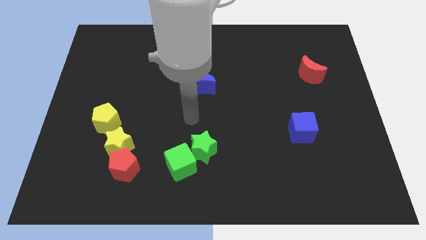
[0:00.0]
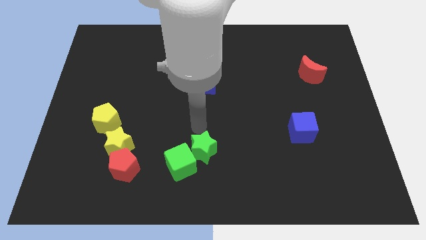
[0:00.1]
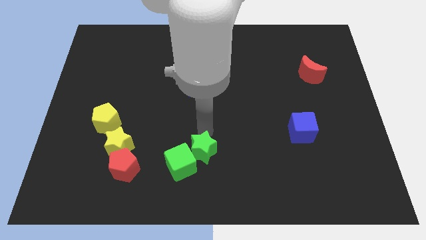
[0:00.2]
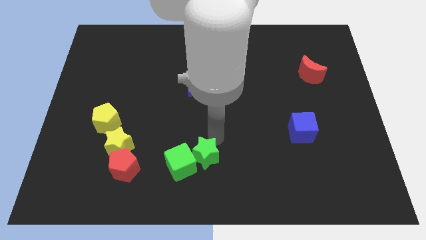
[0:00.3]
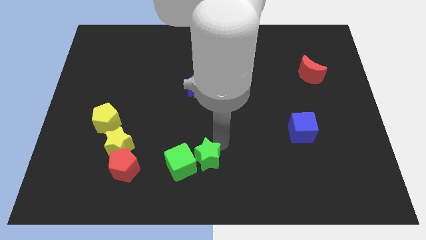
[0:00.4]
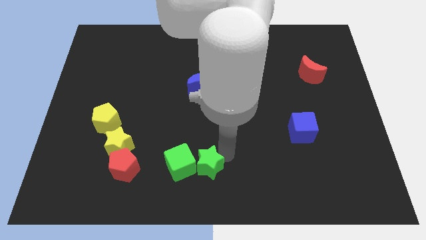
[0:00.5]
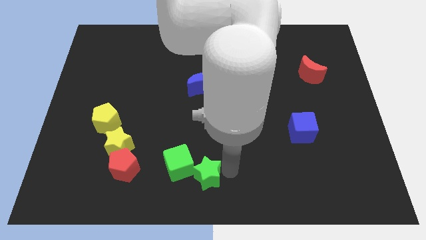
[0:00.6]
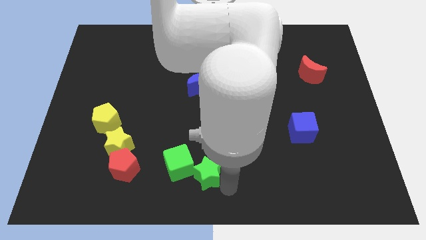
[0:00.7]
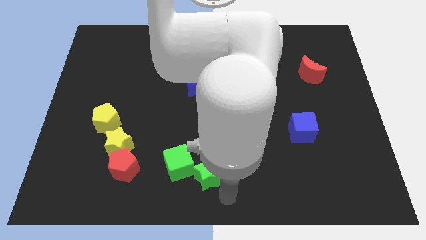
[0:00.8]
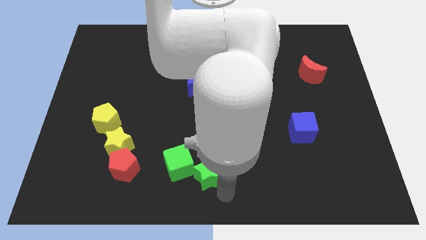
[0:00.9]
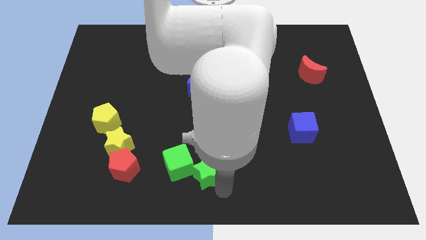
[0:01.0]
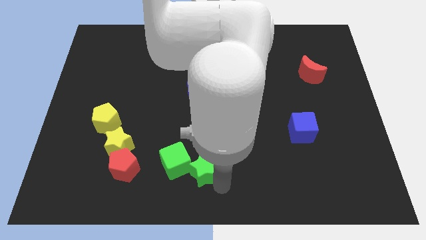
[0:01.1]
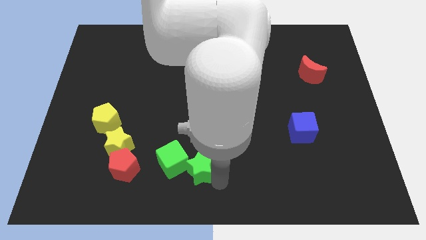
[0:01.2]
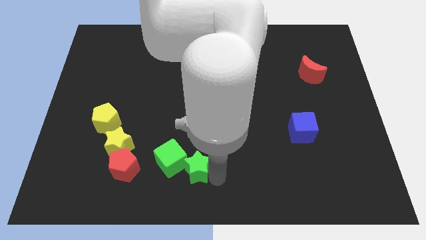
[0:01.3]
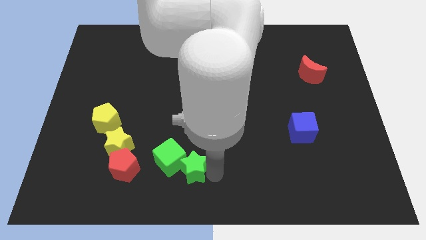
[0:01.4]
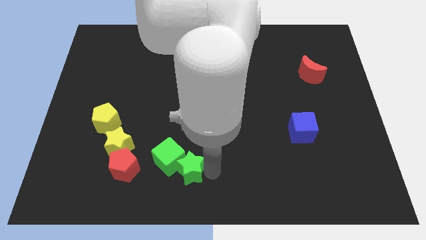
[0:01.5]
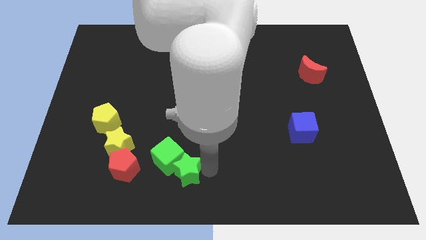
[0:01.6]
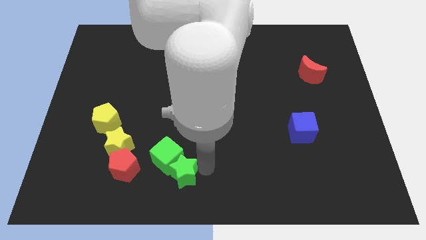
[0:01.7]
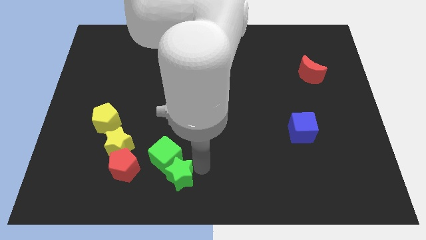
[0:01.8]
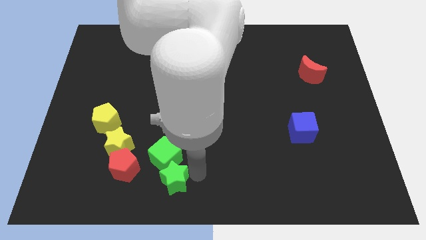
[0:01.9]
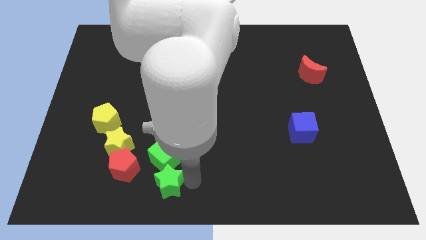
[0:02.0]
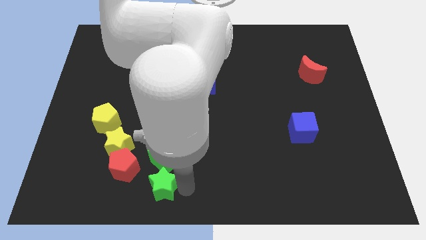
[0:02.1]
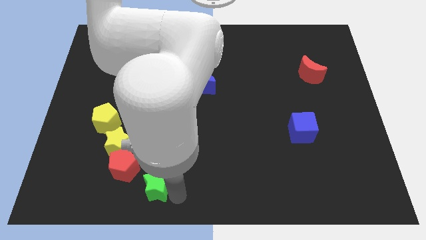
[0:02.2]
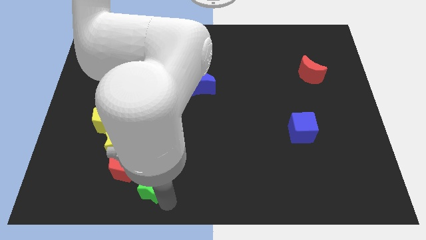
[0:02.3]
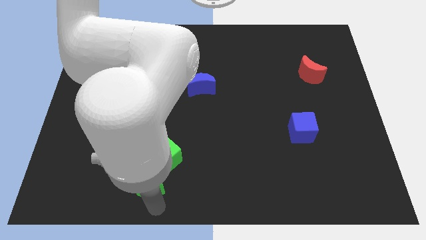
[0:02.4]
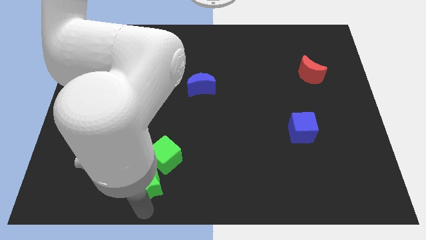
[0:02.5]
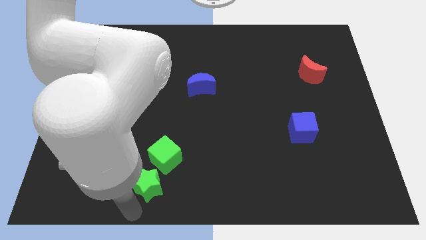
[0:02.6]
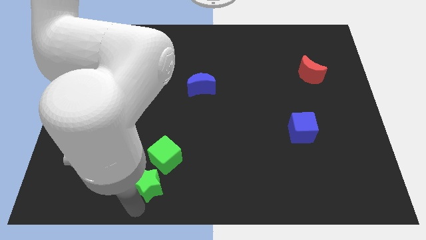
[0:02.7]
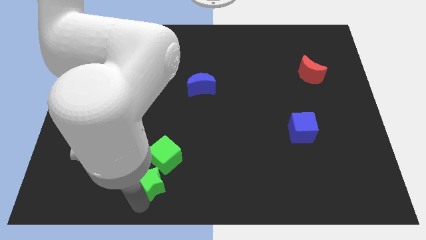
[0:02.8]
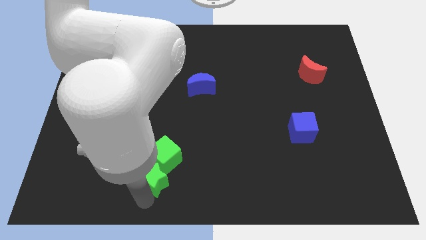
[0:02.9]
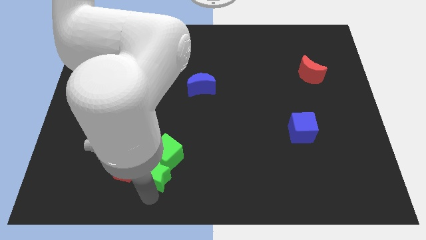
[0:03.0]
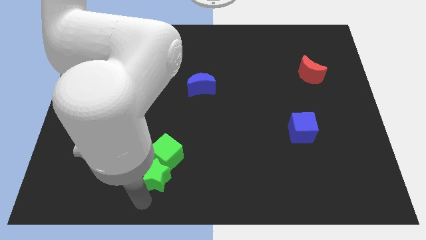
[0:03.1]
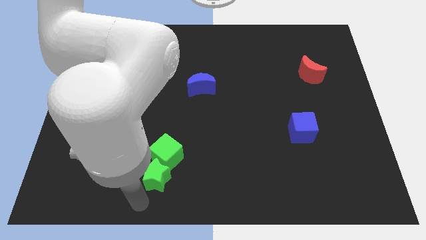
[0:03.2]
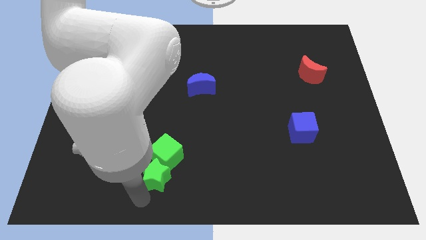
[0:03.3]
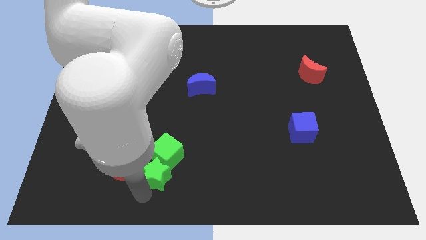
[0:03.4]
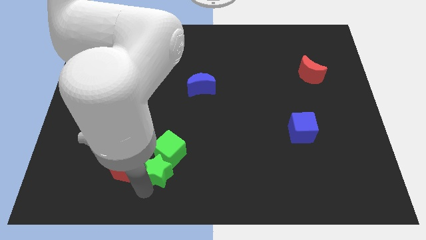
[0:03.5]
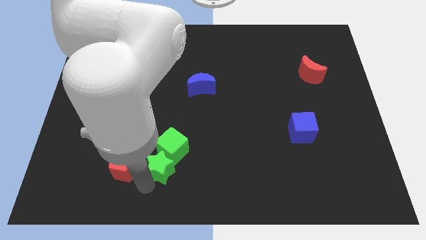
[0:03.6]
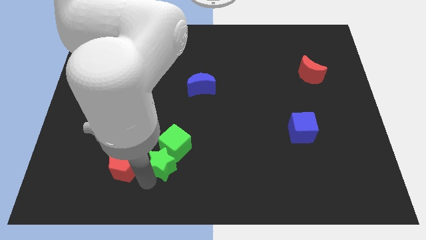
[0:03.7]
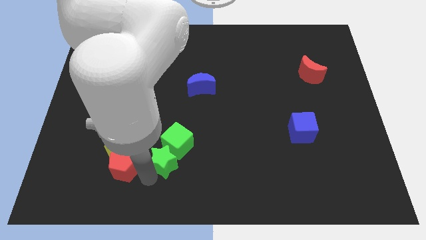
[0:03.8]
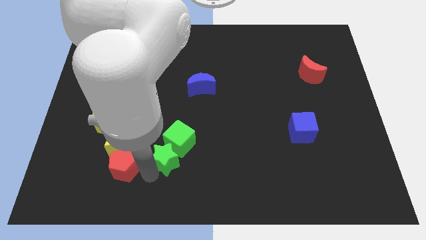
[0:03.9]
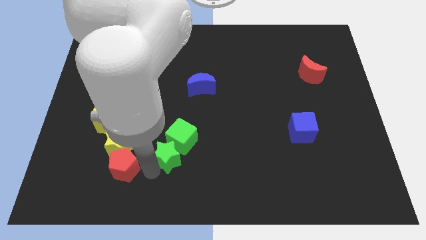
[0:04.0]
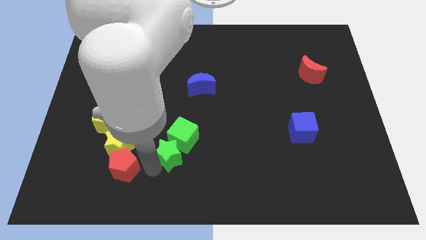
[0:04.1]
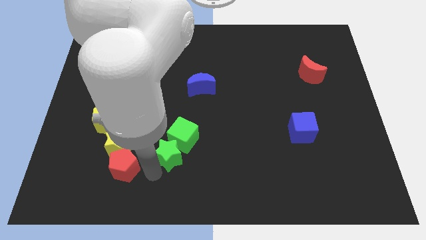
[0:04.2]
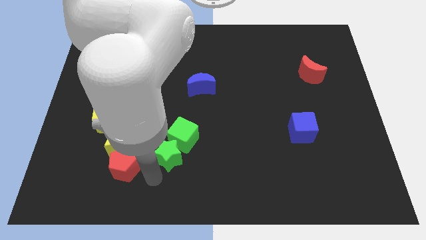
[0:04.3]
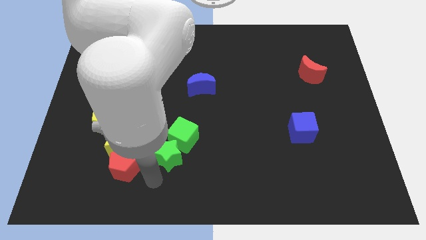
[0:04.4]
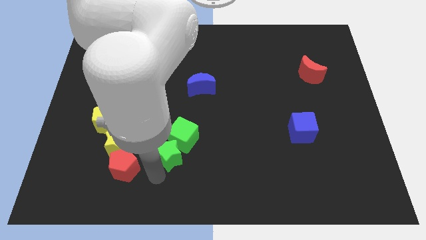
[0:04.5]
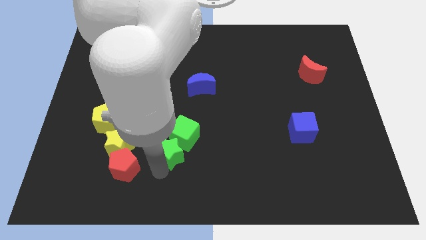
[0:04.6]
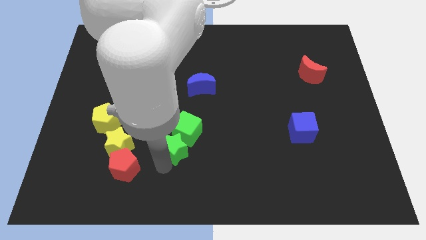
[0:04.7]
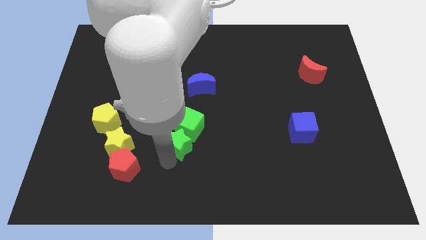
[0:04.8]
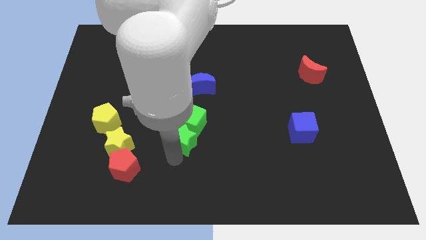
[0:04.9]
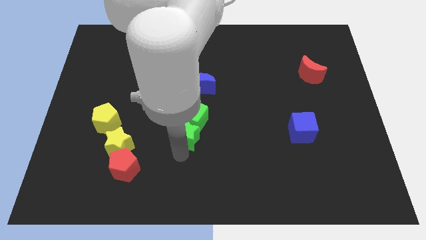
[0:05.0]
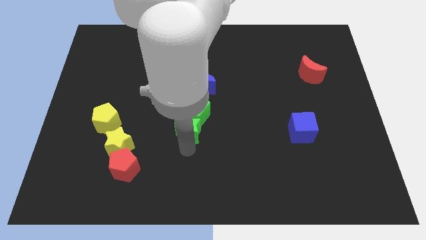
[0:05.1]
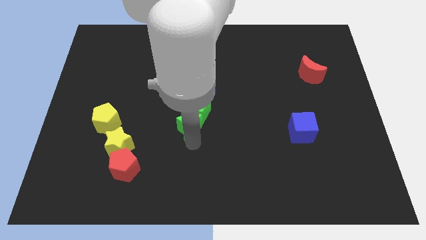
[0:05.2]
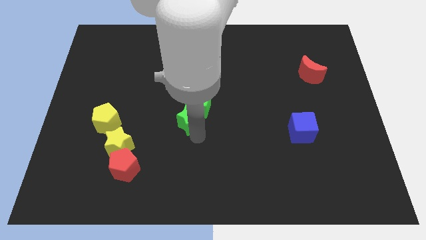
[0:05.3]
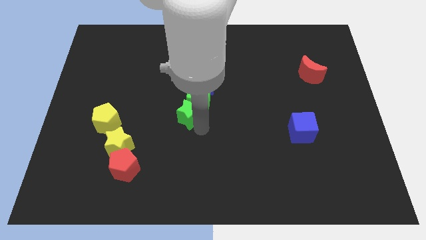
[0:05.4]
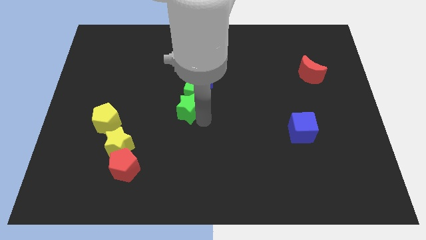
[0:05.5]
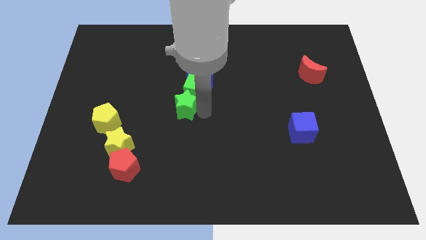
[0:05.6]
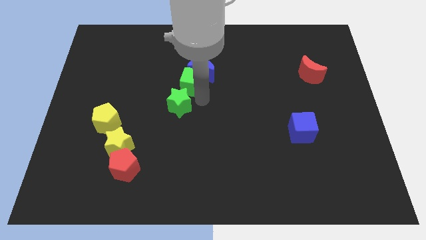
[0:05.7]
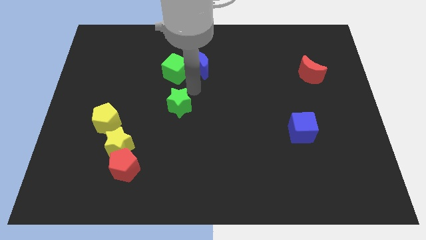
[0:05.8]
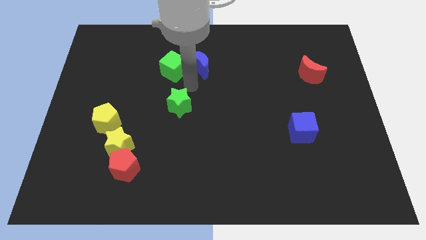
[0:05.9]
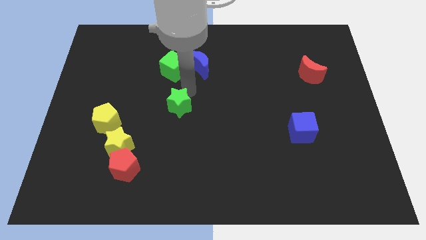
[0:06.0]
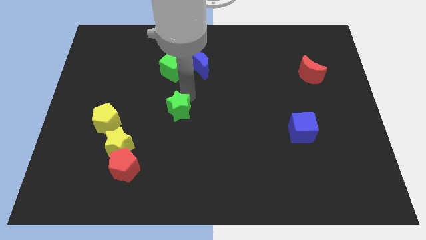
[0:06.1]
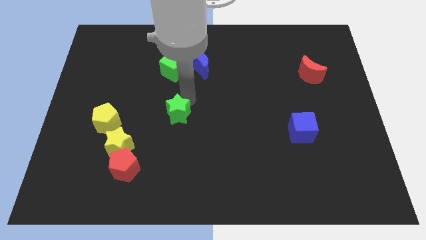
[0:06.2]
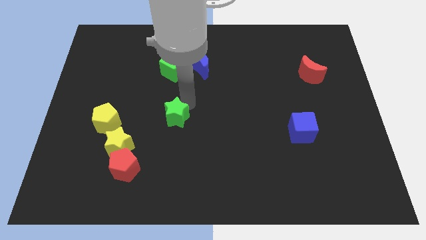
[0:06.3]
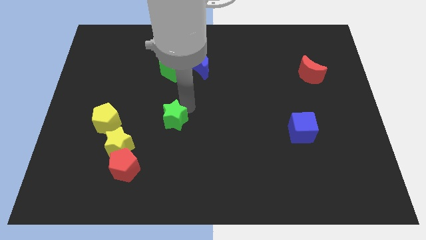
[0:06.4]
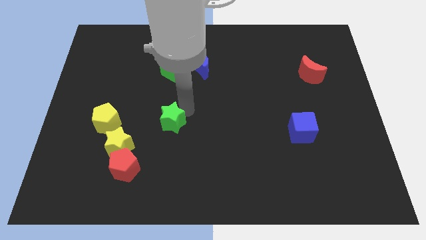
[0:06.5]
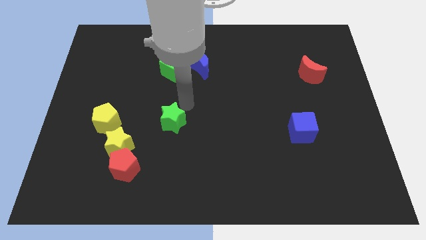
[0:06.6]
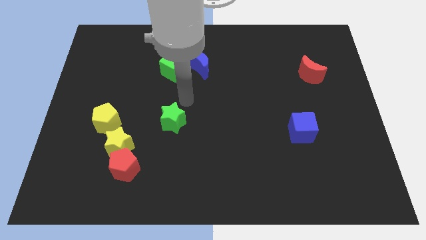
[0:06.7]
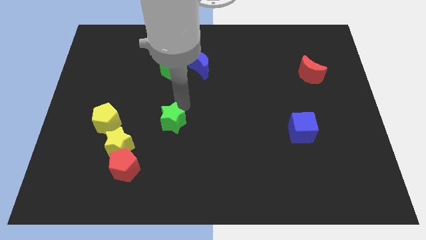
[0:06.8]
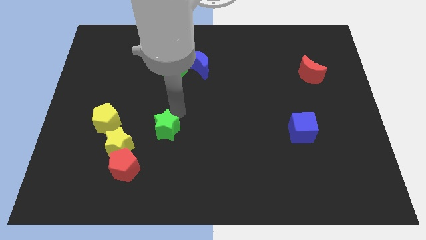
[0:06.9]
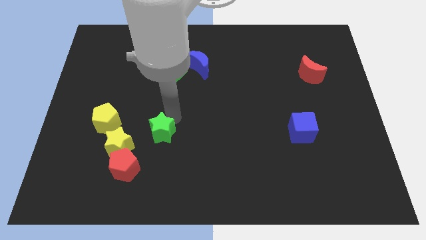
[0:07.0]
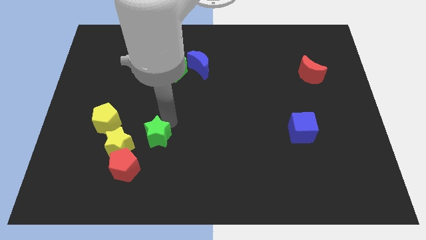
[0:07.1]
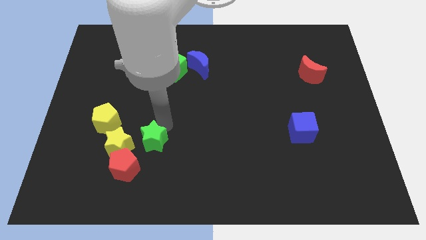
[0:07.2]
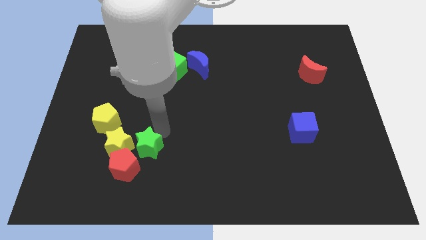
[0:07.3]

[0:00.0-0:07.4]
put the green star to the yellow star
